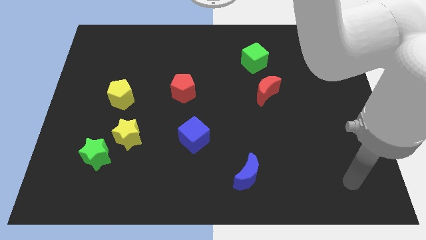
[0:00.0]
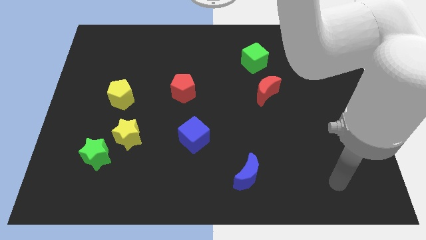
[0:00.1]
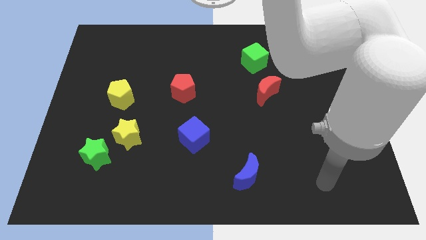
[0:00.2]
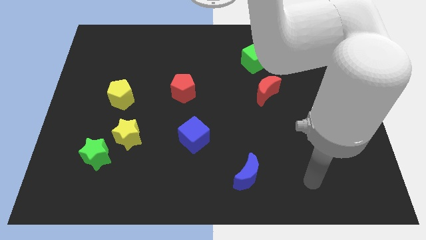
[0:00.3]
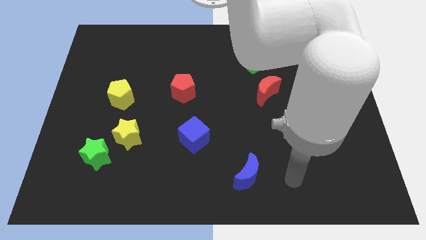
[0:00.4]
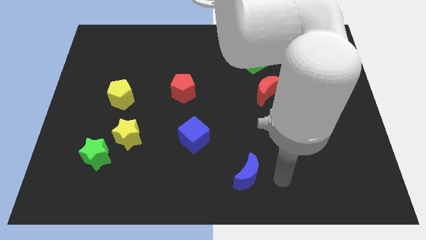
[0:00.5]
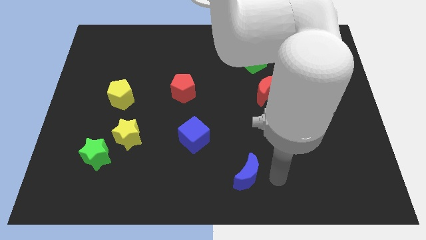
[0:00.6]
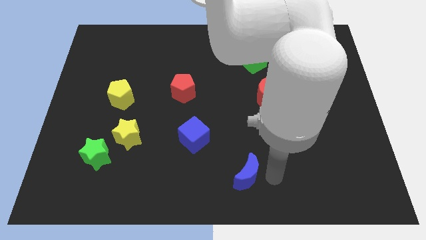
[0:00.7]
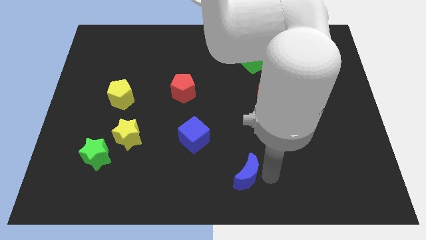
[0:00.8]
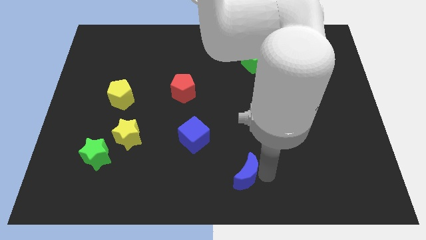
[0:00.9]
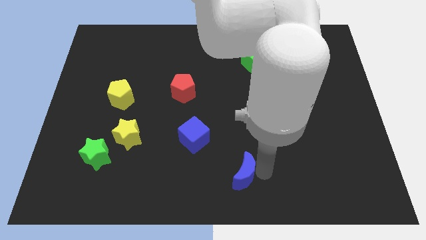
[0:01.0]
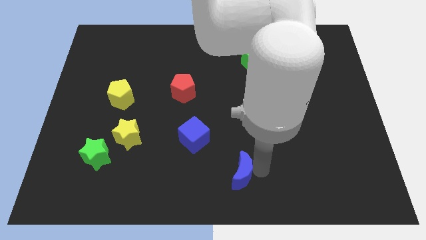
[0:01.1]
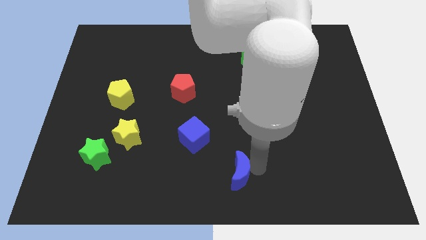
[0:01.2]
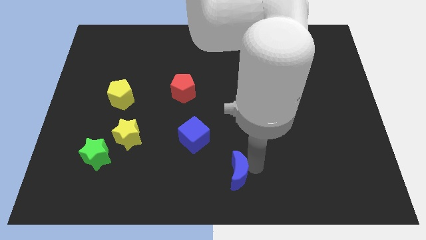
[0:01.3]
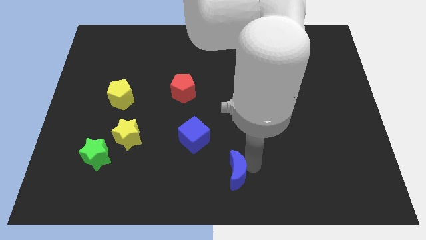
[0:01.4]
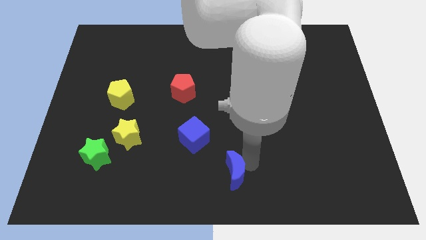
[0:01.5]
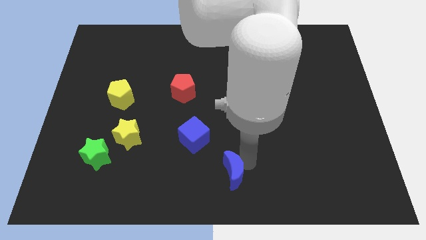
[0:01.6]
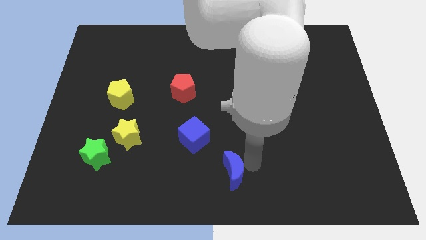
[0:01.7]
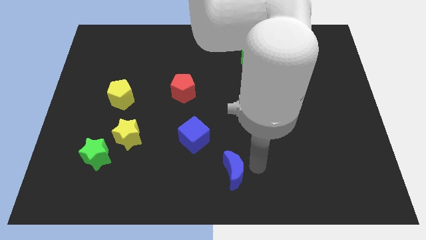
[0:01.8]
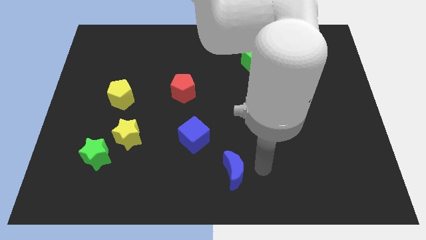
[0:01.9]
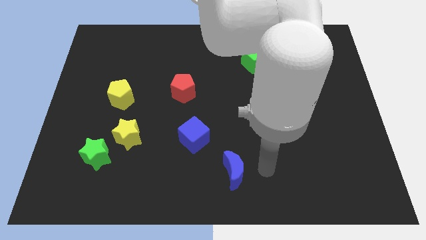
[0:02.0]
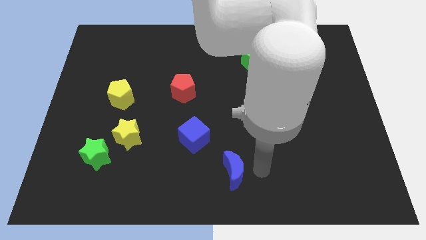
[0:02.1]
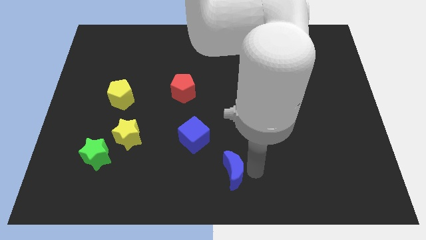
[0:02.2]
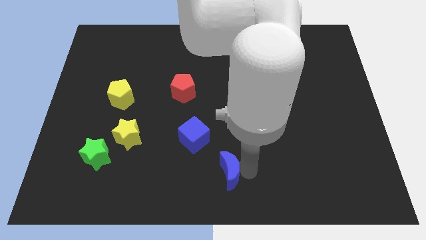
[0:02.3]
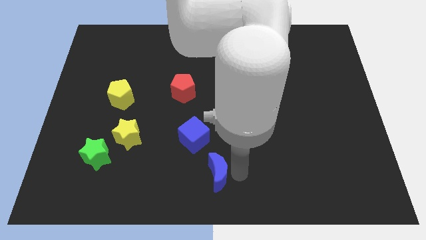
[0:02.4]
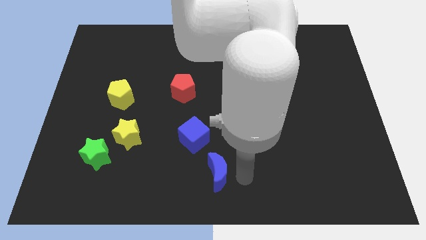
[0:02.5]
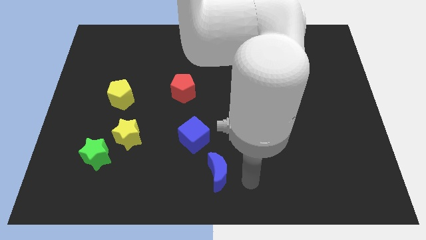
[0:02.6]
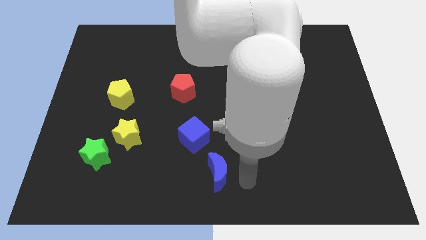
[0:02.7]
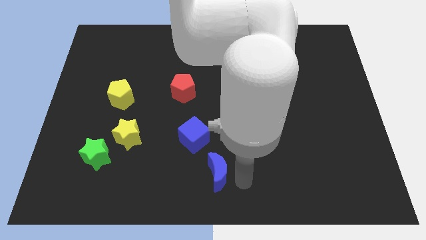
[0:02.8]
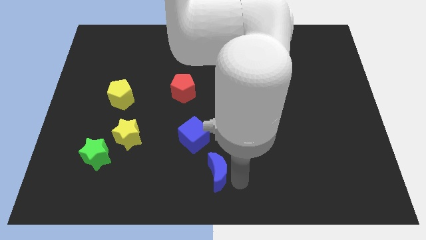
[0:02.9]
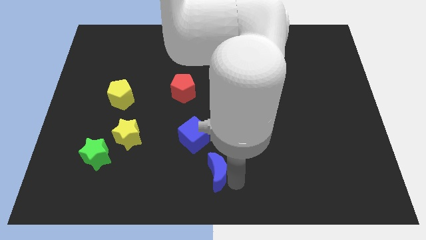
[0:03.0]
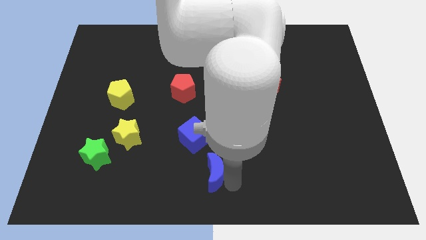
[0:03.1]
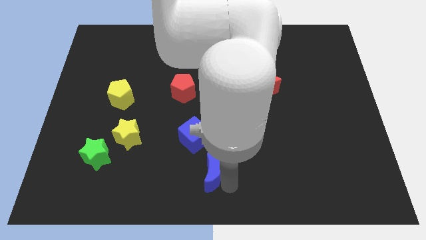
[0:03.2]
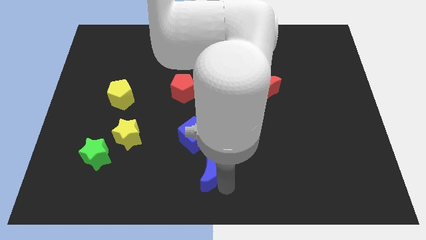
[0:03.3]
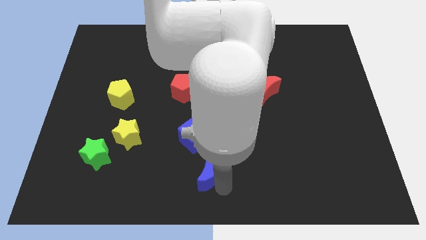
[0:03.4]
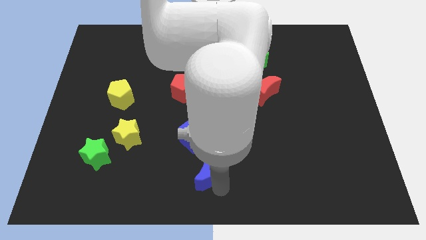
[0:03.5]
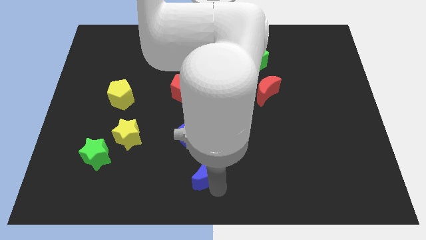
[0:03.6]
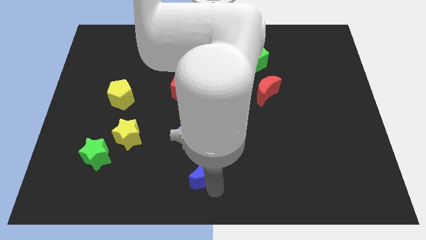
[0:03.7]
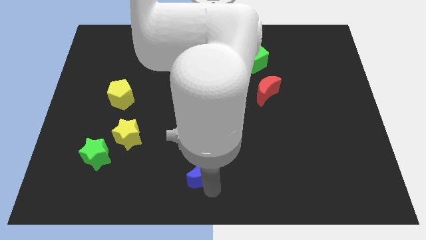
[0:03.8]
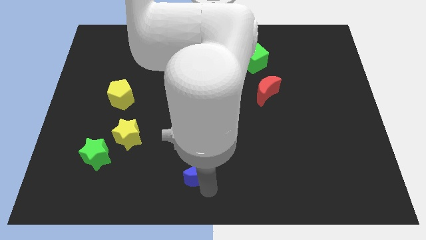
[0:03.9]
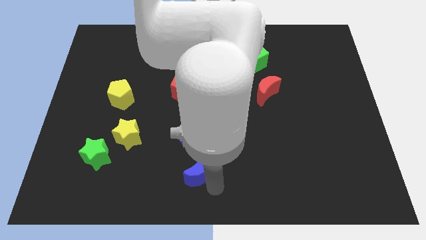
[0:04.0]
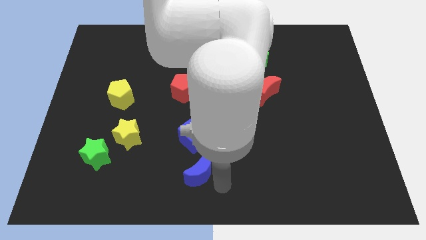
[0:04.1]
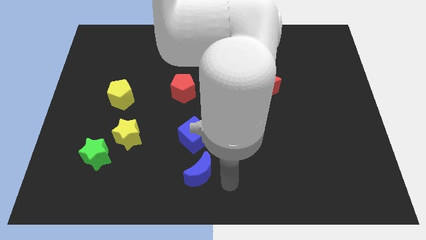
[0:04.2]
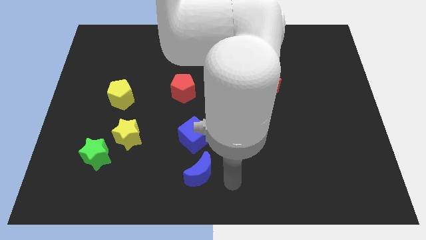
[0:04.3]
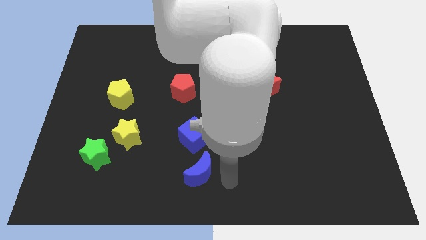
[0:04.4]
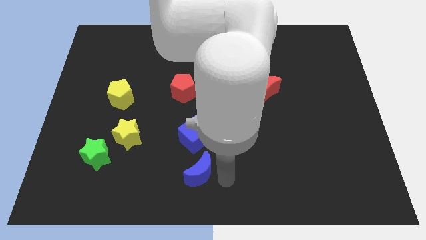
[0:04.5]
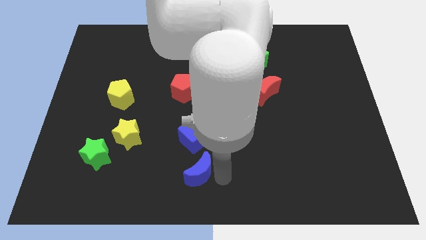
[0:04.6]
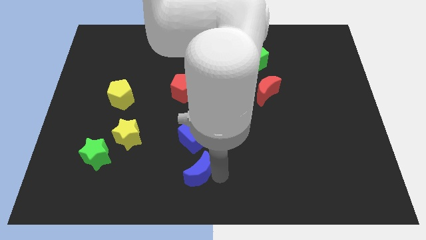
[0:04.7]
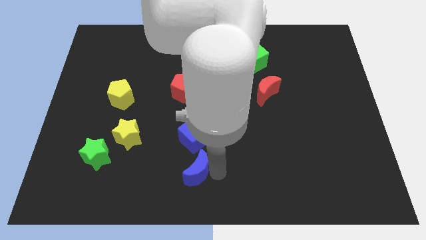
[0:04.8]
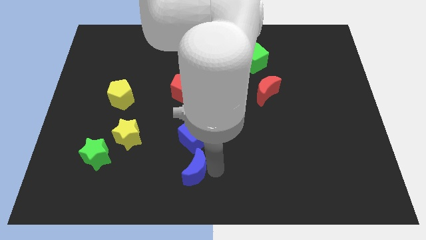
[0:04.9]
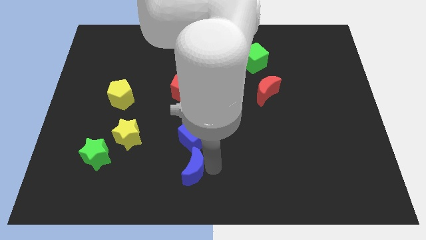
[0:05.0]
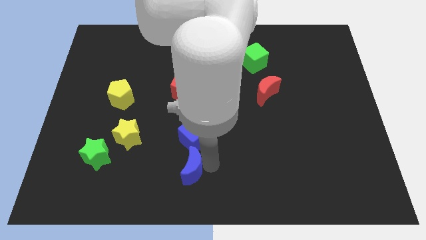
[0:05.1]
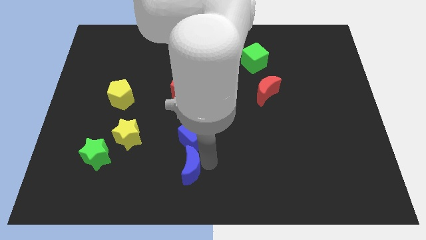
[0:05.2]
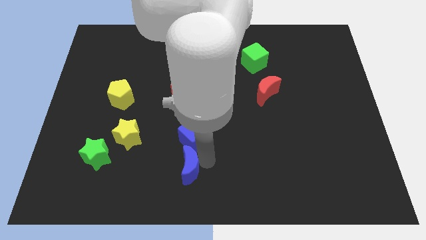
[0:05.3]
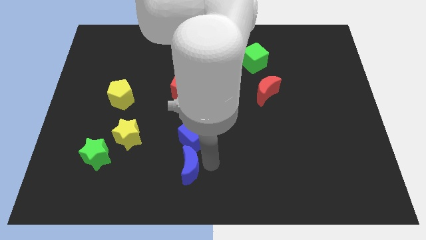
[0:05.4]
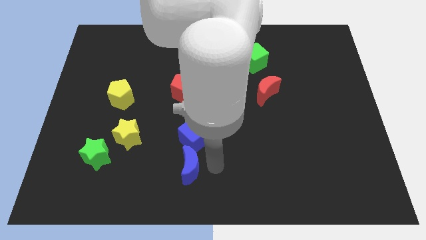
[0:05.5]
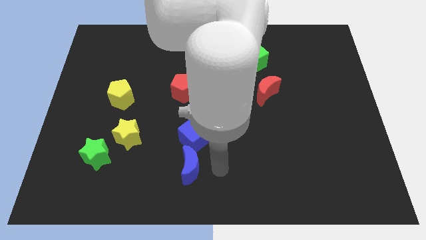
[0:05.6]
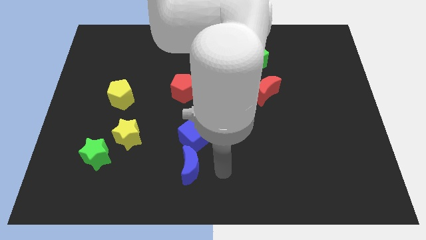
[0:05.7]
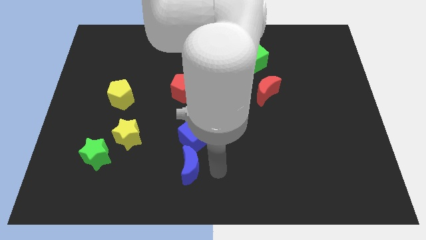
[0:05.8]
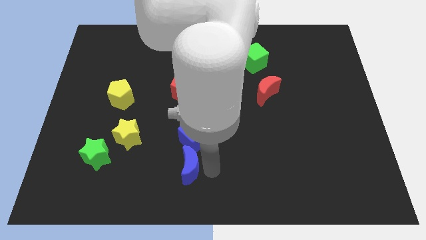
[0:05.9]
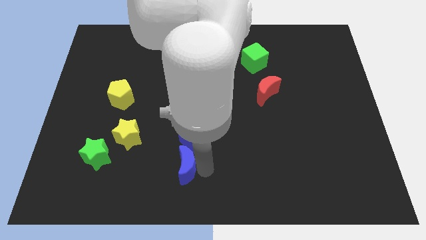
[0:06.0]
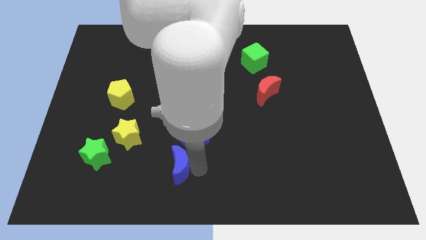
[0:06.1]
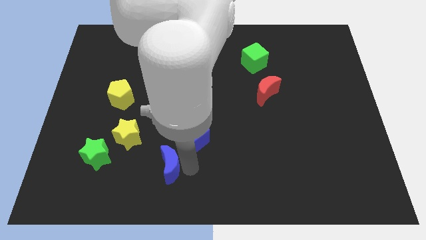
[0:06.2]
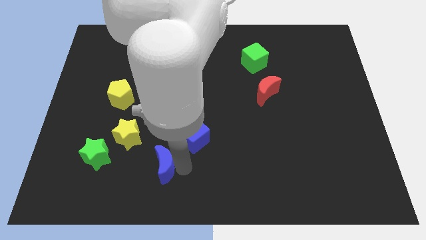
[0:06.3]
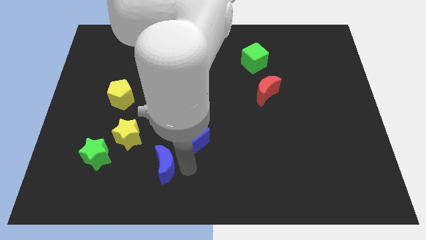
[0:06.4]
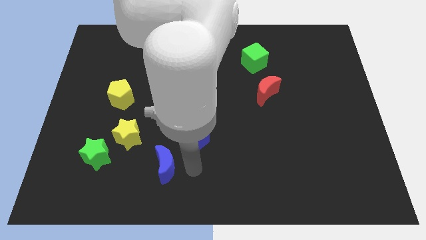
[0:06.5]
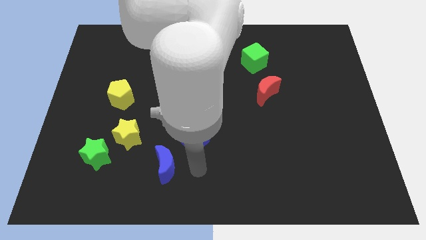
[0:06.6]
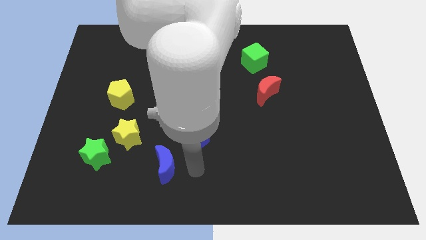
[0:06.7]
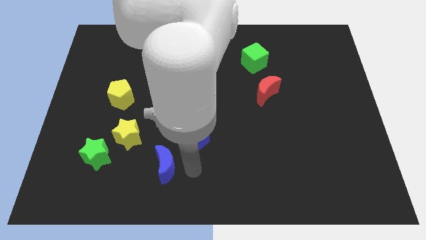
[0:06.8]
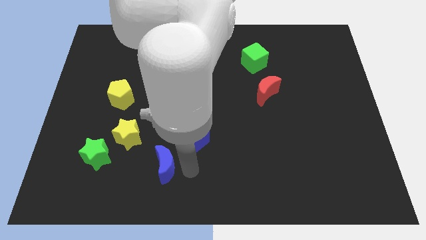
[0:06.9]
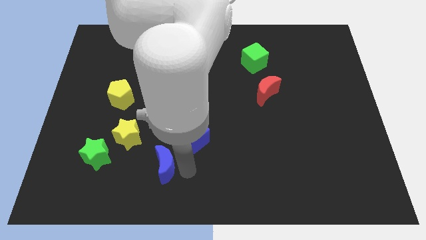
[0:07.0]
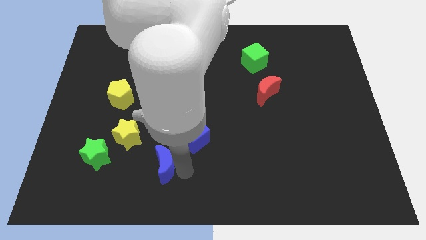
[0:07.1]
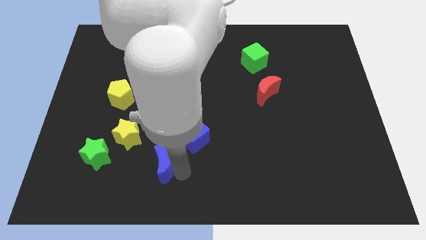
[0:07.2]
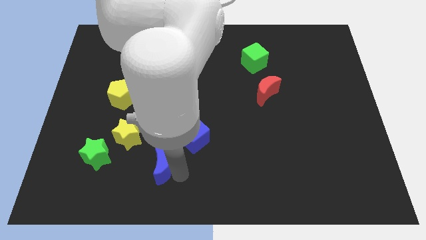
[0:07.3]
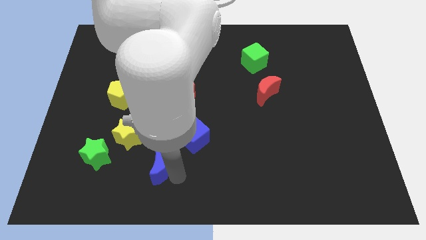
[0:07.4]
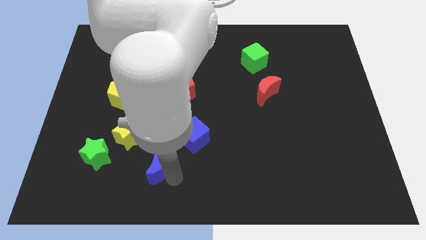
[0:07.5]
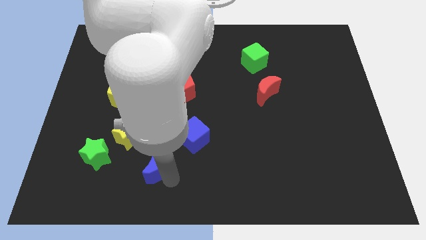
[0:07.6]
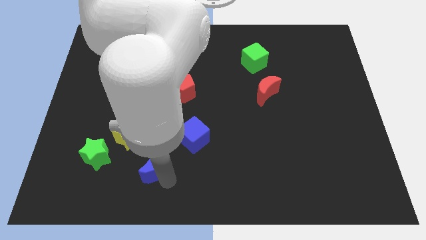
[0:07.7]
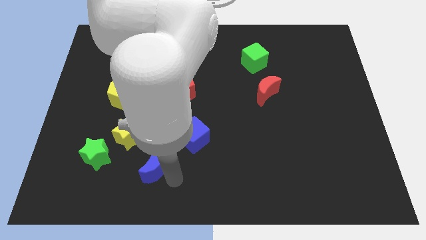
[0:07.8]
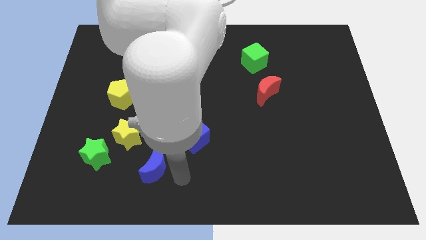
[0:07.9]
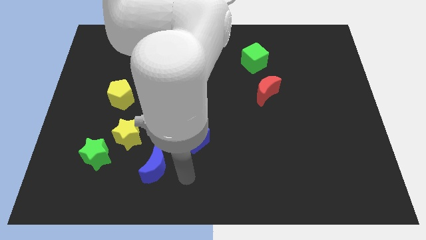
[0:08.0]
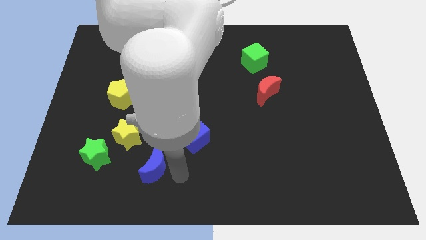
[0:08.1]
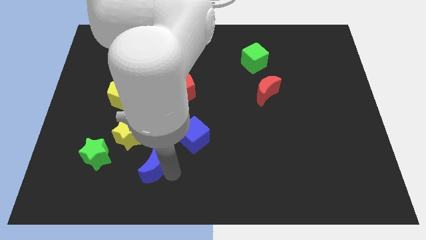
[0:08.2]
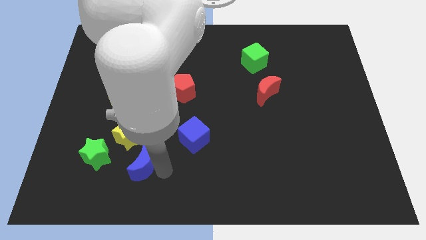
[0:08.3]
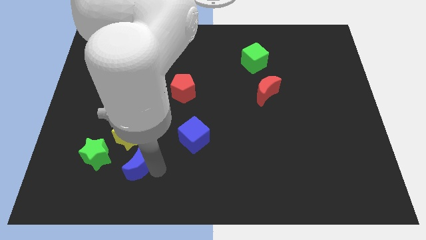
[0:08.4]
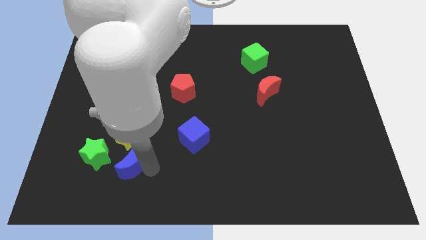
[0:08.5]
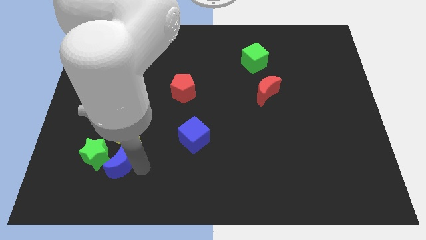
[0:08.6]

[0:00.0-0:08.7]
slide the blue moon to the green star
